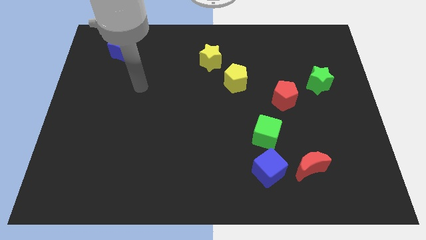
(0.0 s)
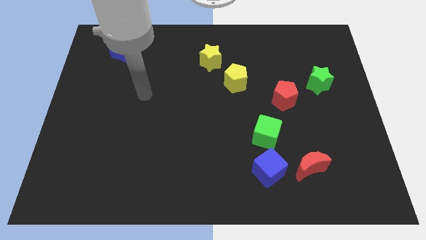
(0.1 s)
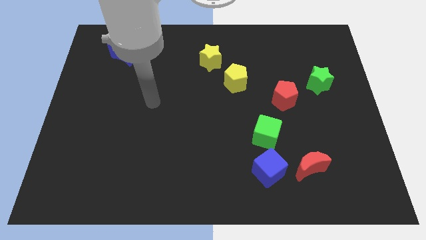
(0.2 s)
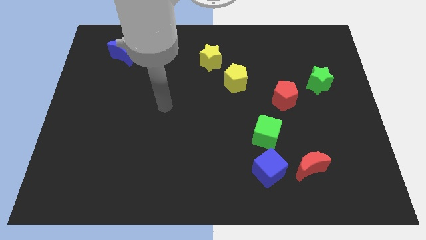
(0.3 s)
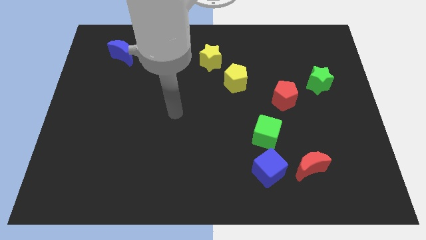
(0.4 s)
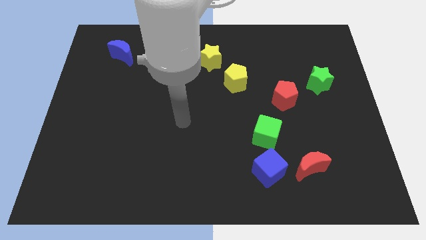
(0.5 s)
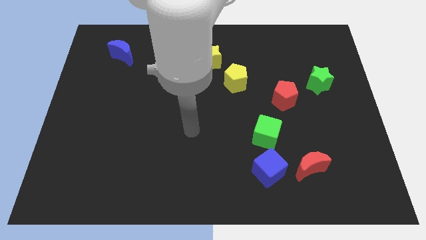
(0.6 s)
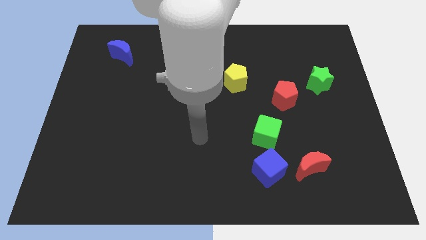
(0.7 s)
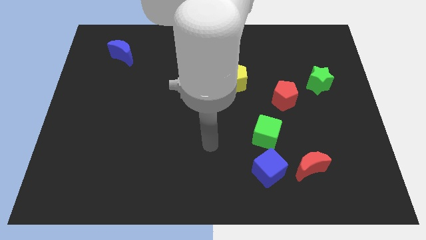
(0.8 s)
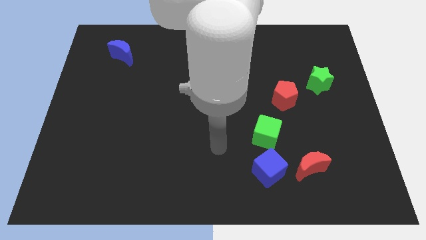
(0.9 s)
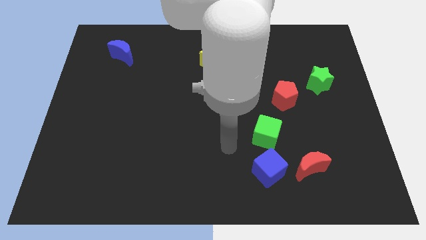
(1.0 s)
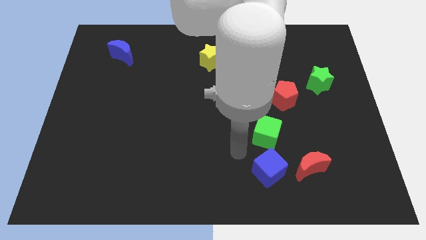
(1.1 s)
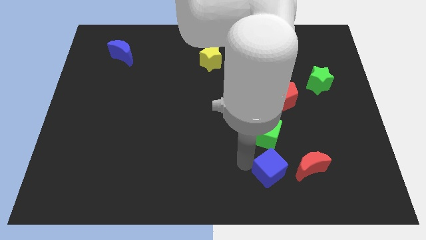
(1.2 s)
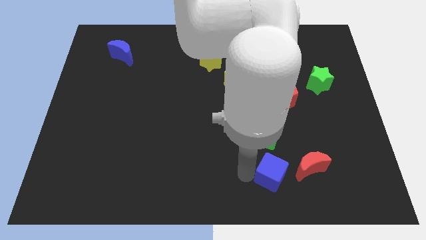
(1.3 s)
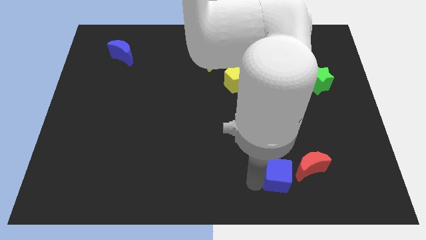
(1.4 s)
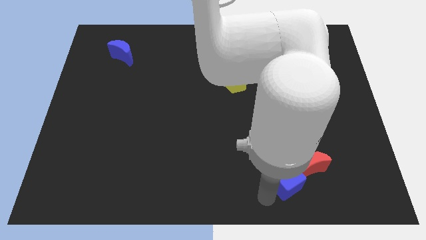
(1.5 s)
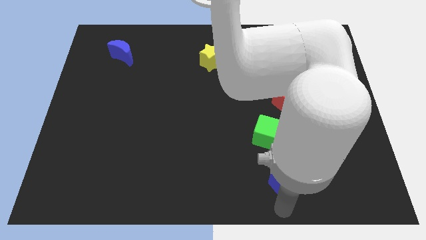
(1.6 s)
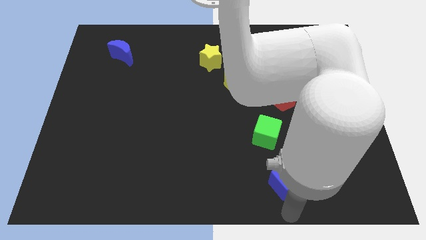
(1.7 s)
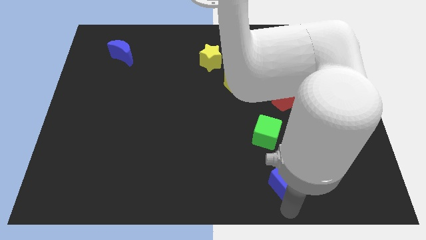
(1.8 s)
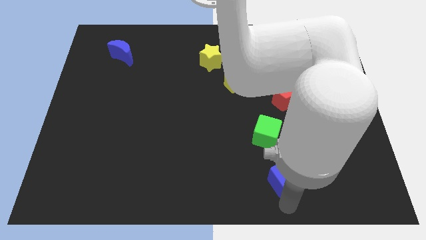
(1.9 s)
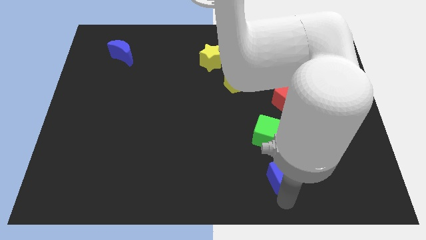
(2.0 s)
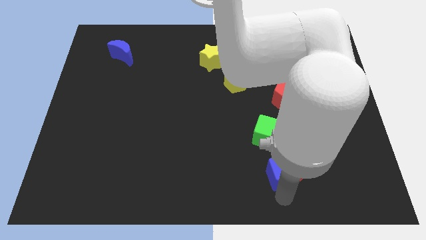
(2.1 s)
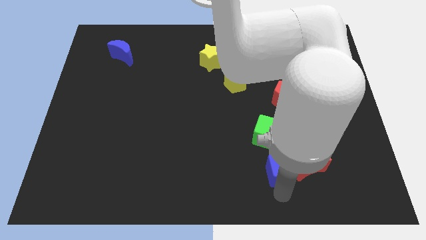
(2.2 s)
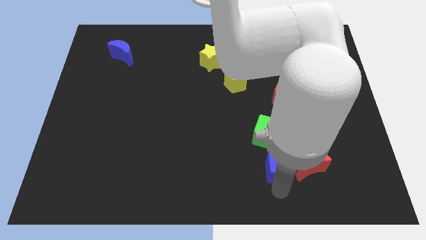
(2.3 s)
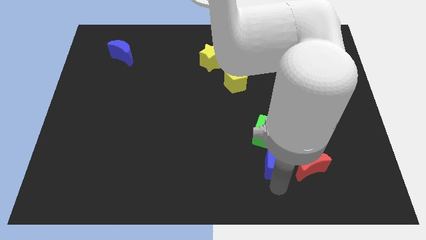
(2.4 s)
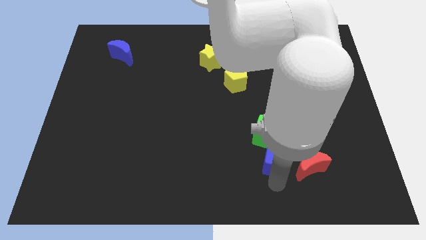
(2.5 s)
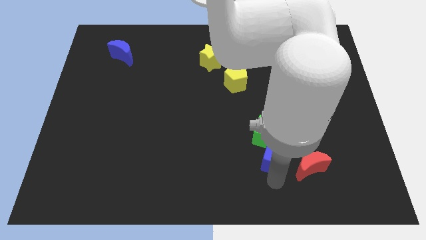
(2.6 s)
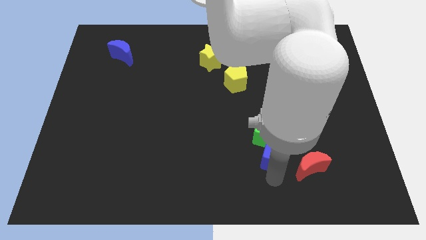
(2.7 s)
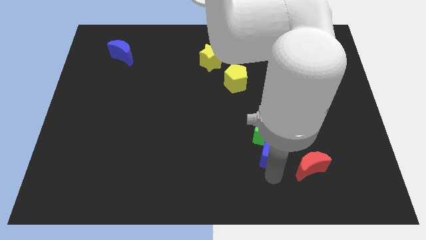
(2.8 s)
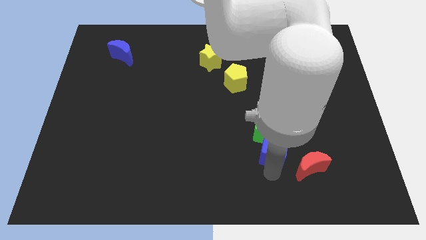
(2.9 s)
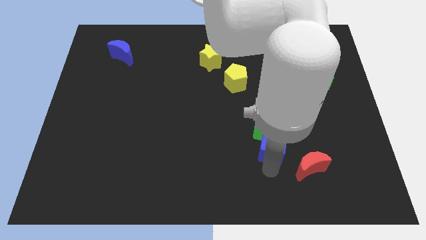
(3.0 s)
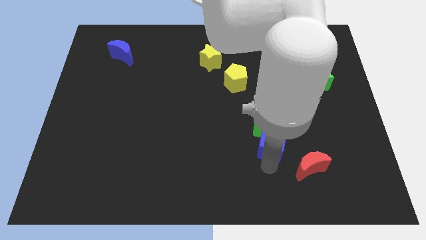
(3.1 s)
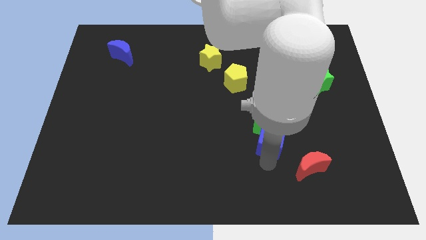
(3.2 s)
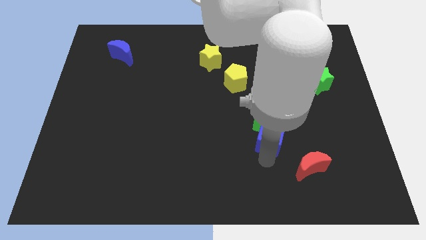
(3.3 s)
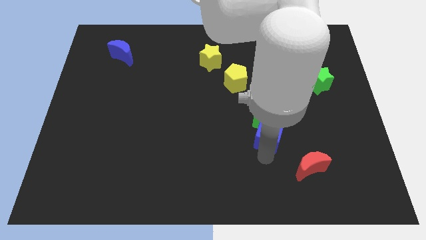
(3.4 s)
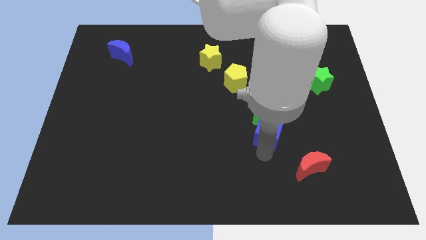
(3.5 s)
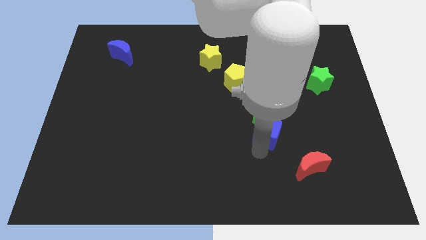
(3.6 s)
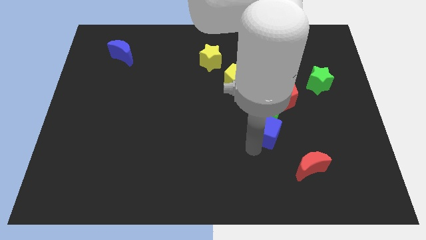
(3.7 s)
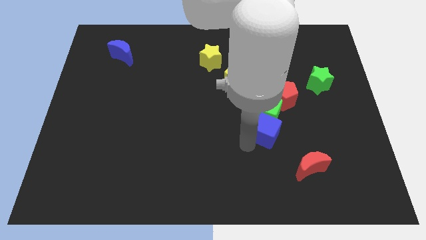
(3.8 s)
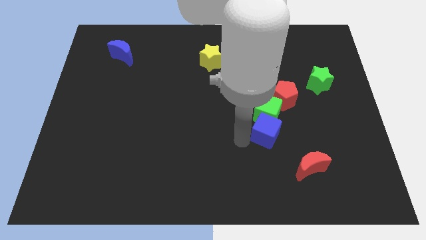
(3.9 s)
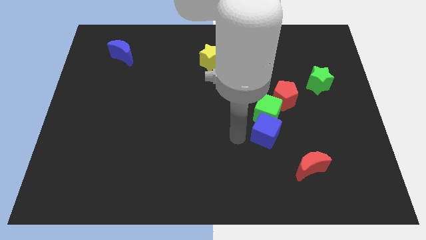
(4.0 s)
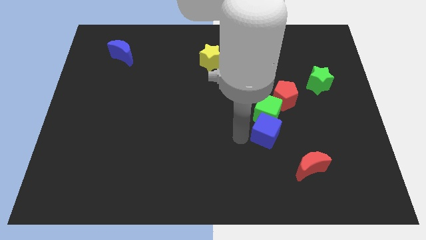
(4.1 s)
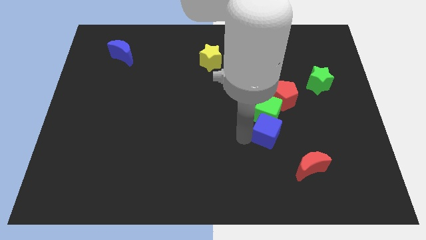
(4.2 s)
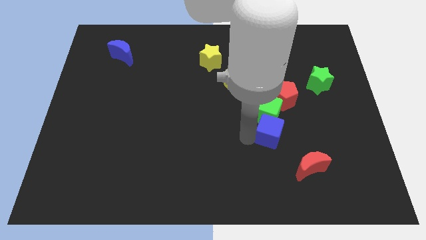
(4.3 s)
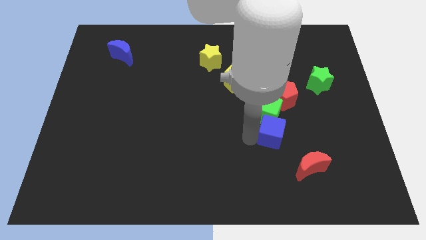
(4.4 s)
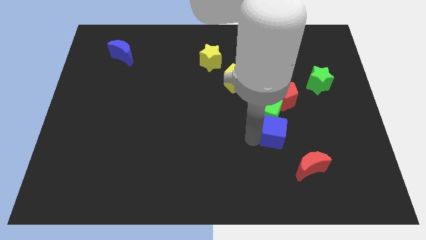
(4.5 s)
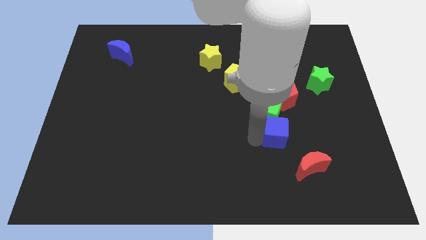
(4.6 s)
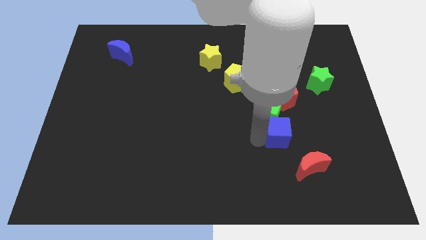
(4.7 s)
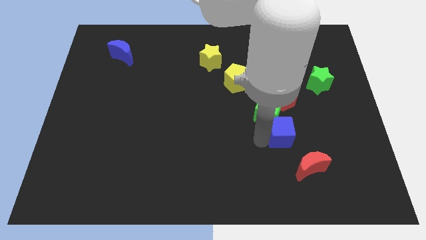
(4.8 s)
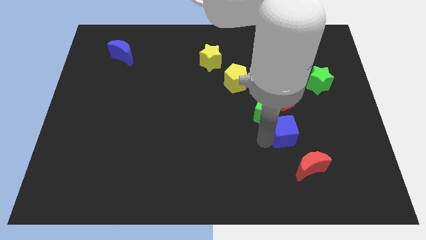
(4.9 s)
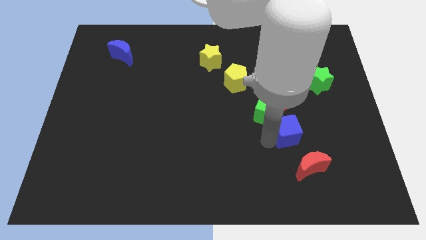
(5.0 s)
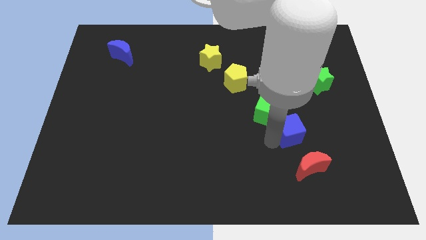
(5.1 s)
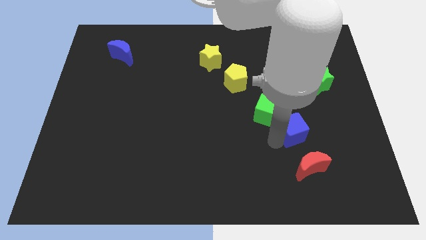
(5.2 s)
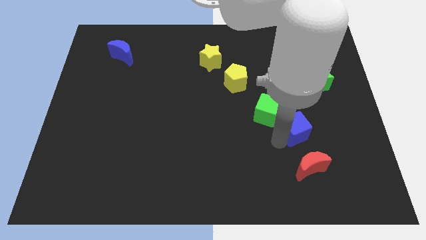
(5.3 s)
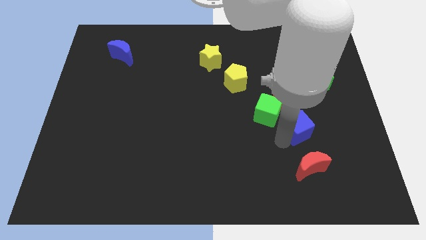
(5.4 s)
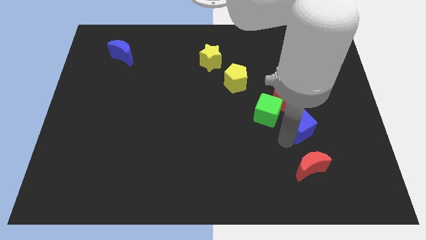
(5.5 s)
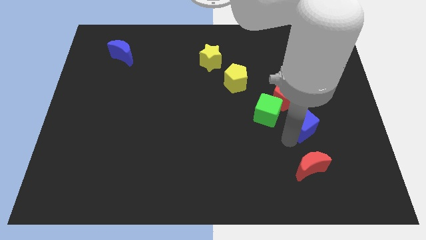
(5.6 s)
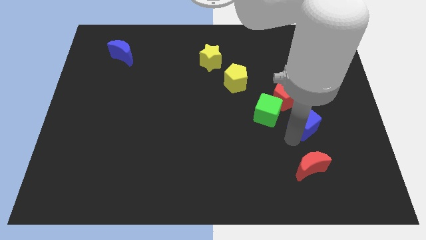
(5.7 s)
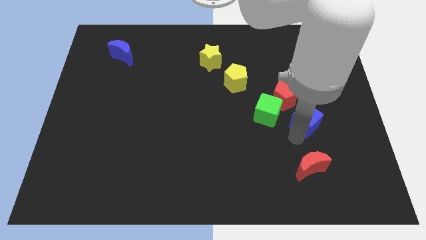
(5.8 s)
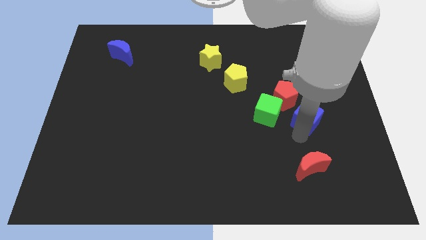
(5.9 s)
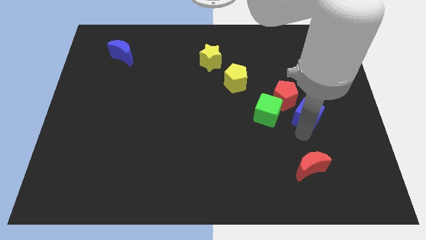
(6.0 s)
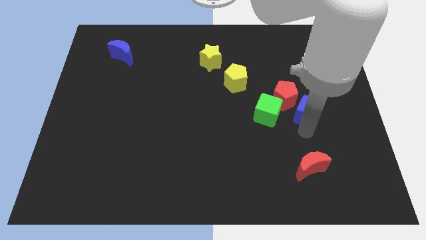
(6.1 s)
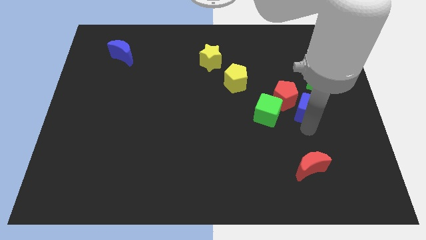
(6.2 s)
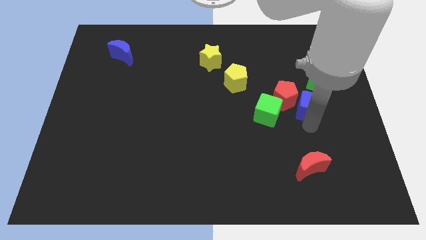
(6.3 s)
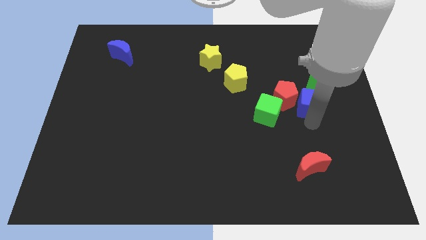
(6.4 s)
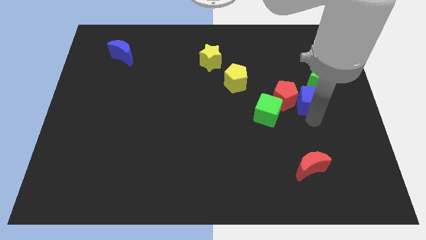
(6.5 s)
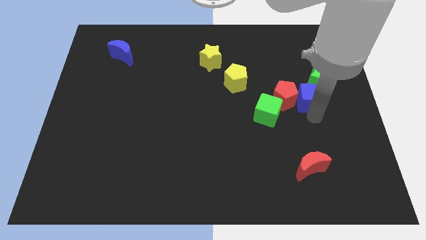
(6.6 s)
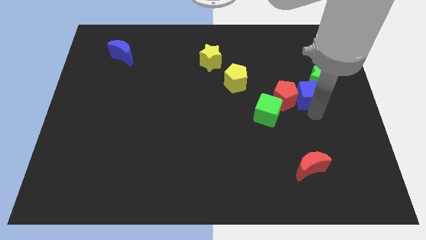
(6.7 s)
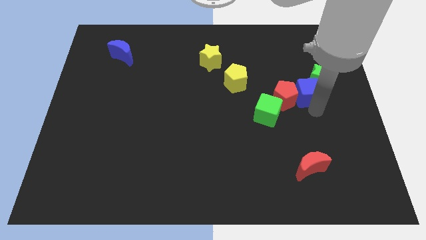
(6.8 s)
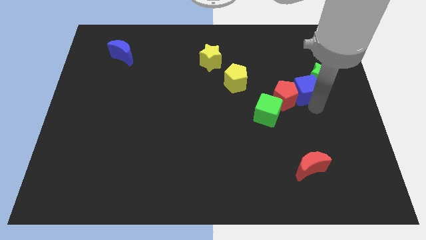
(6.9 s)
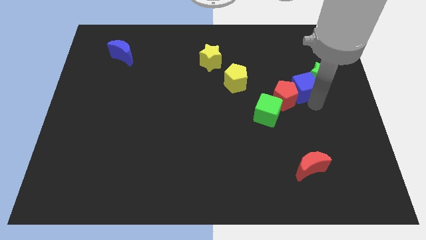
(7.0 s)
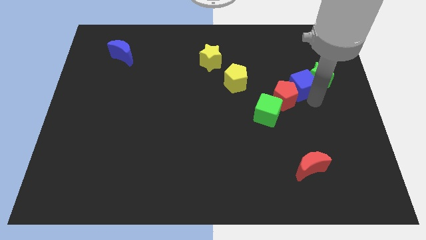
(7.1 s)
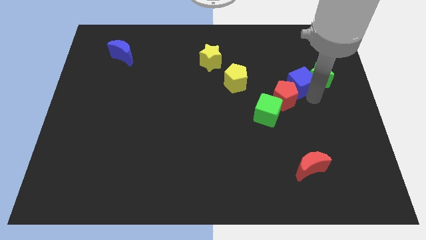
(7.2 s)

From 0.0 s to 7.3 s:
move the blue cube to the right side of the yellow pentagon

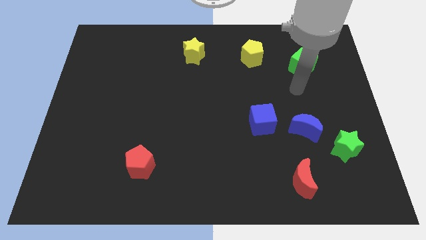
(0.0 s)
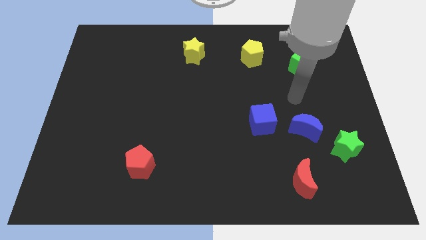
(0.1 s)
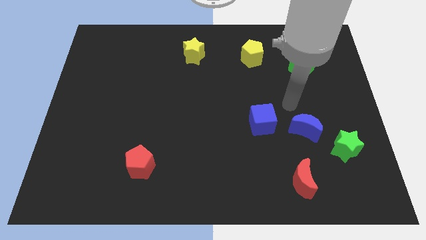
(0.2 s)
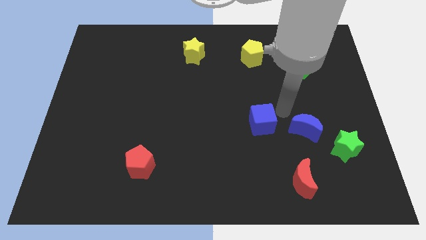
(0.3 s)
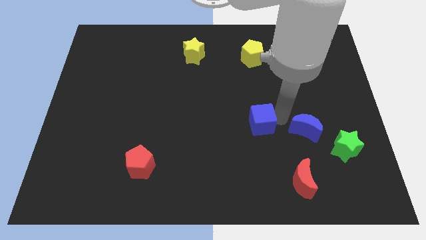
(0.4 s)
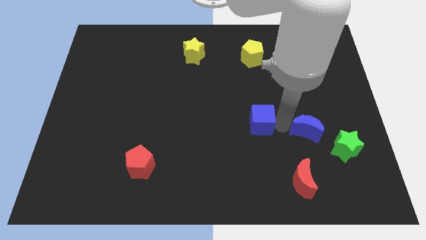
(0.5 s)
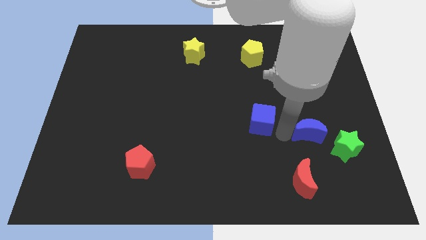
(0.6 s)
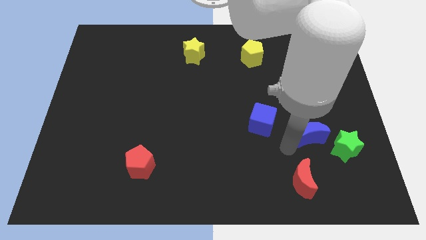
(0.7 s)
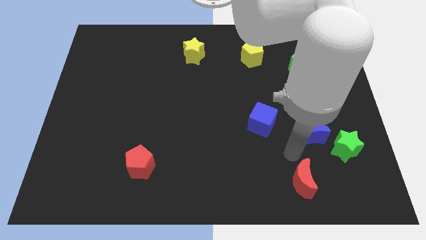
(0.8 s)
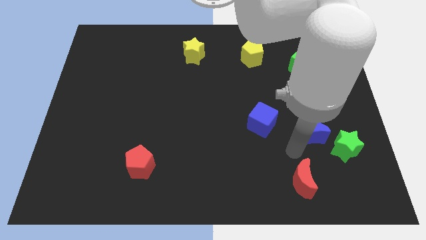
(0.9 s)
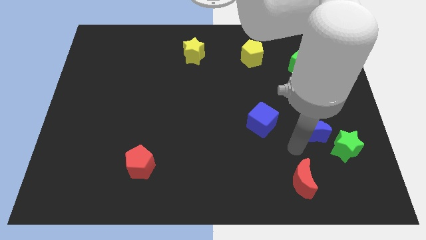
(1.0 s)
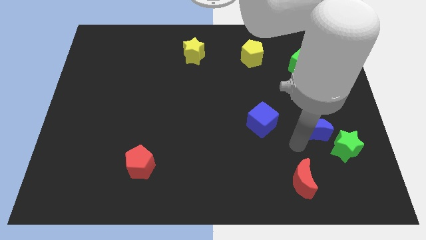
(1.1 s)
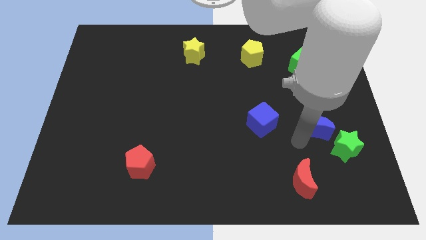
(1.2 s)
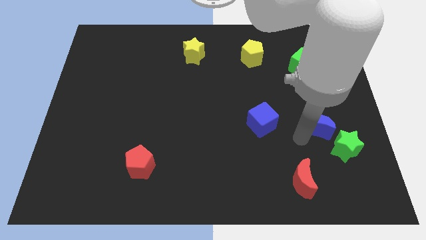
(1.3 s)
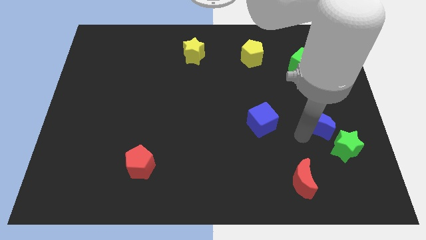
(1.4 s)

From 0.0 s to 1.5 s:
push the blue moon to the top side of the green star
